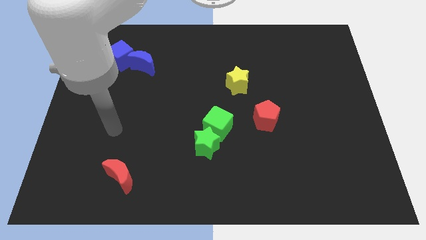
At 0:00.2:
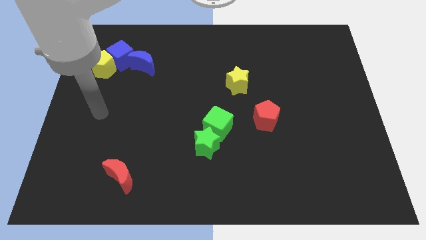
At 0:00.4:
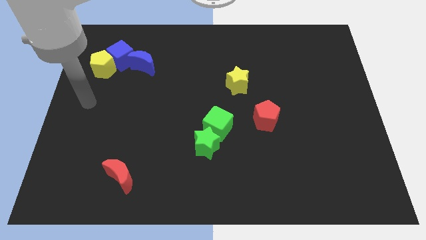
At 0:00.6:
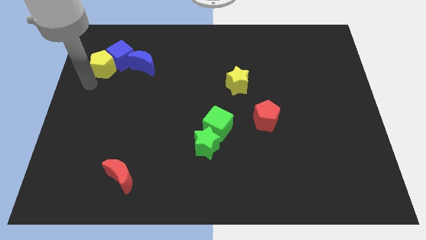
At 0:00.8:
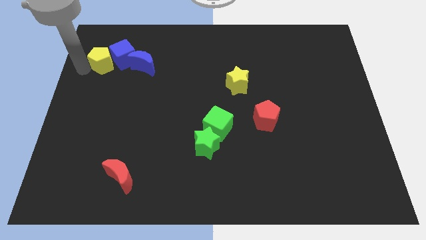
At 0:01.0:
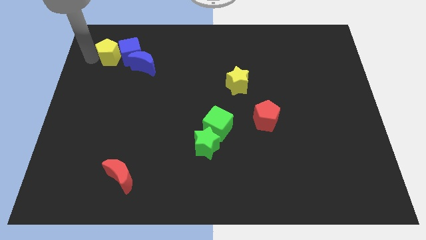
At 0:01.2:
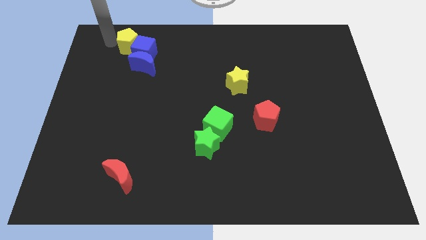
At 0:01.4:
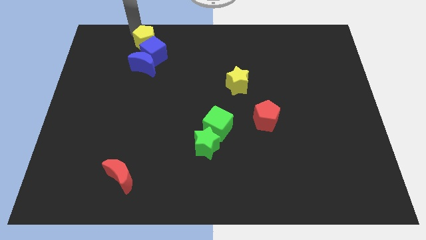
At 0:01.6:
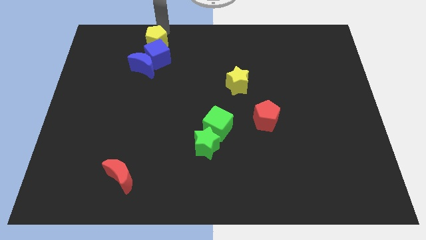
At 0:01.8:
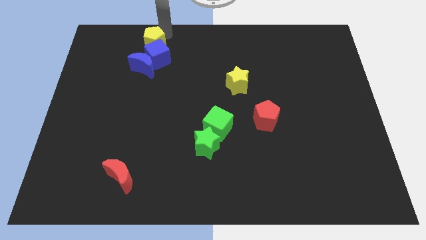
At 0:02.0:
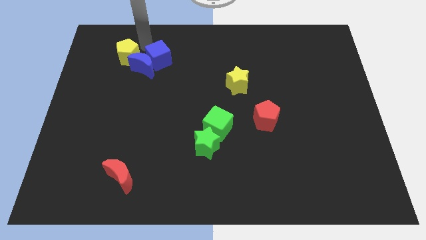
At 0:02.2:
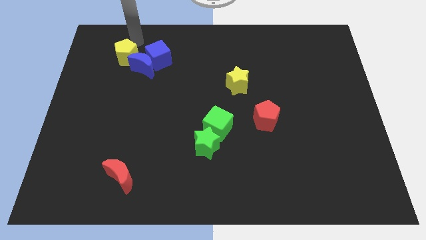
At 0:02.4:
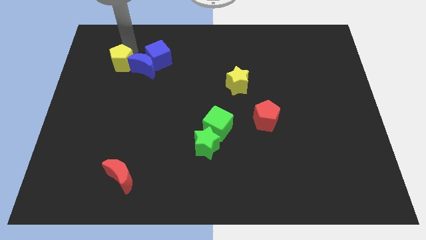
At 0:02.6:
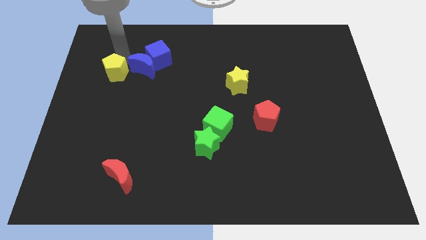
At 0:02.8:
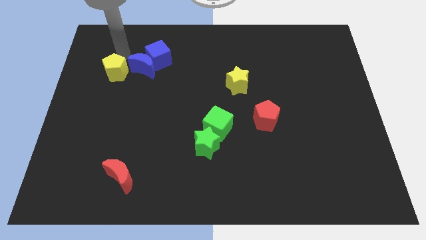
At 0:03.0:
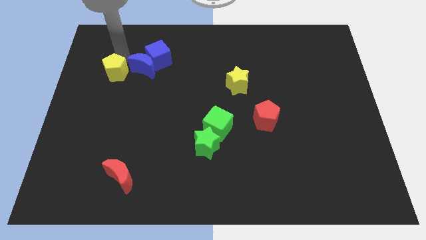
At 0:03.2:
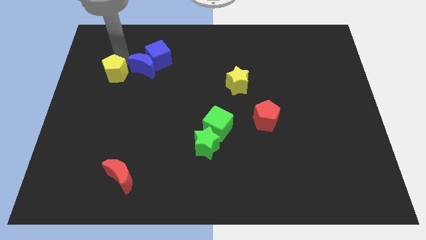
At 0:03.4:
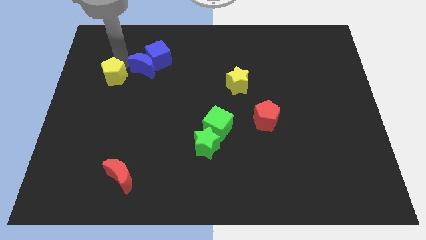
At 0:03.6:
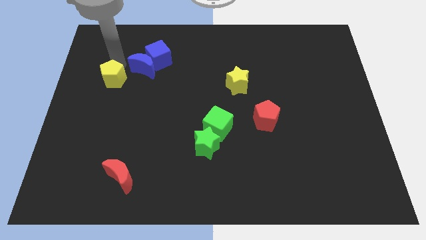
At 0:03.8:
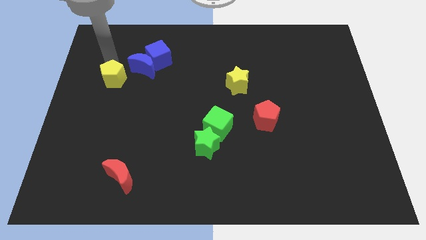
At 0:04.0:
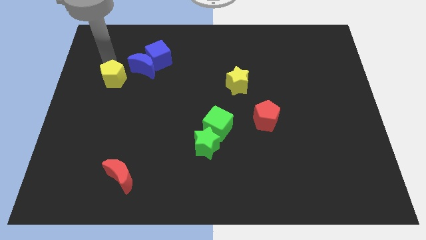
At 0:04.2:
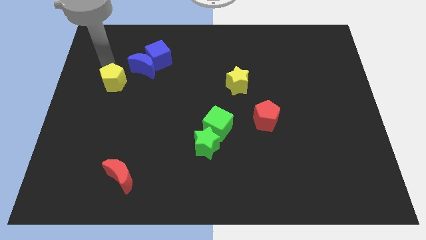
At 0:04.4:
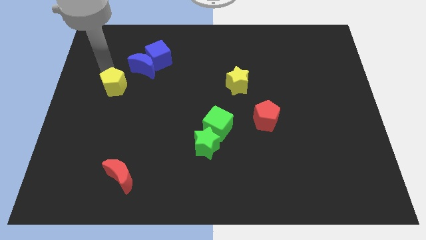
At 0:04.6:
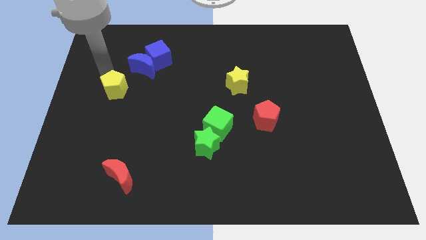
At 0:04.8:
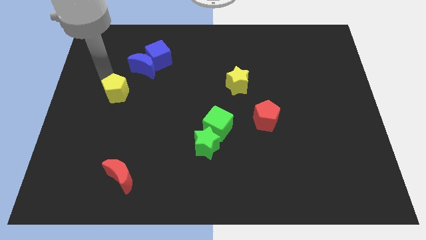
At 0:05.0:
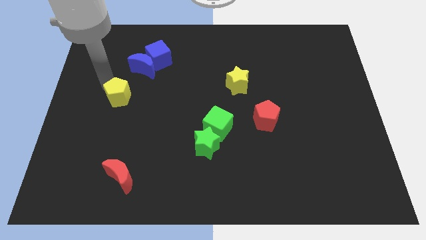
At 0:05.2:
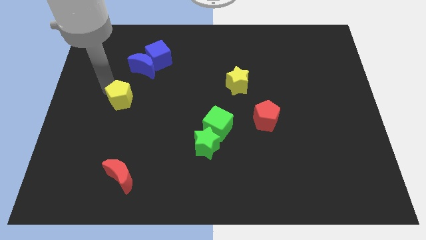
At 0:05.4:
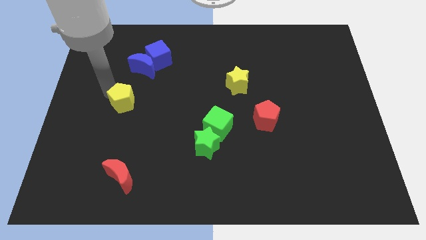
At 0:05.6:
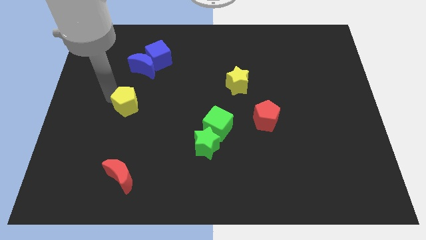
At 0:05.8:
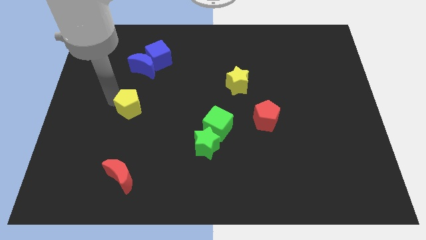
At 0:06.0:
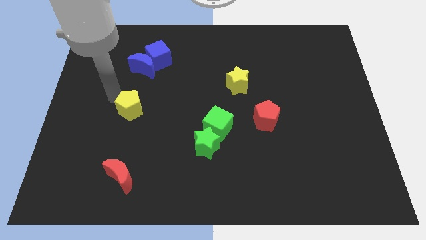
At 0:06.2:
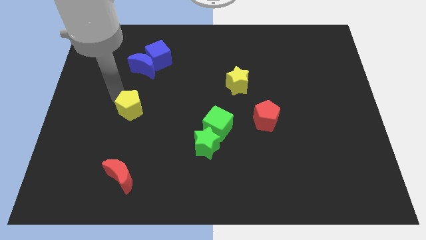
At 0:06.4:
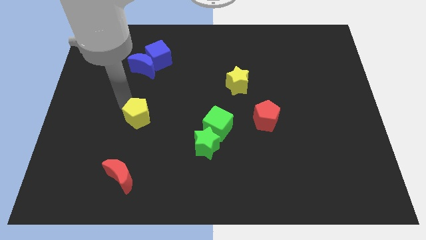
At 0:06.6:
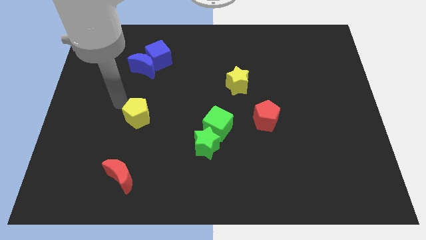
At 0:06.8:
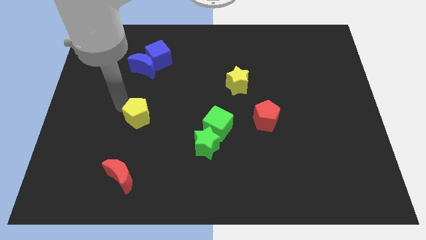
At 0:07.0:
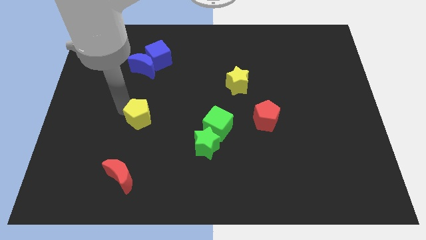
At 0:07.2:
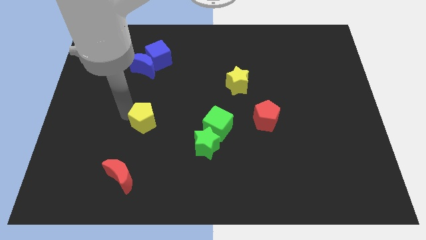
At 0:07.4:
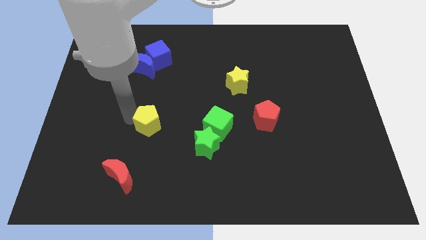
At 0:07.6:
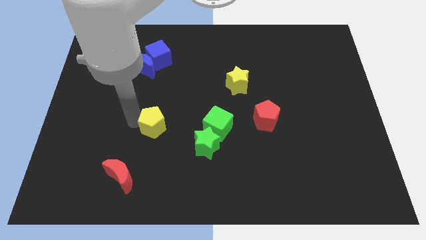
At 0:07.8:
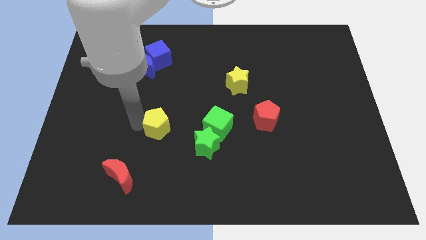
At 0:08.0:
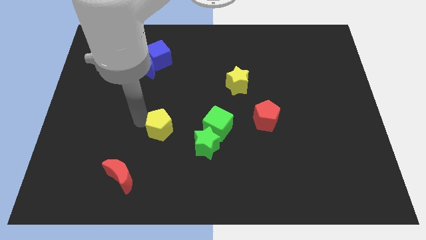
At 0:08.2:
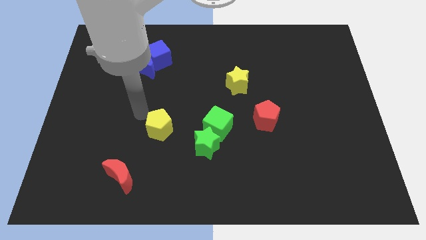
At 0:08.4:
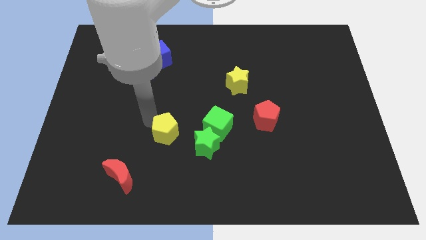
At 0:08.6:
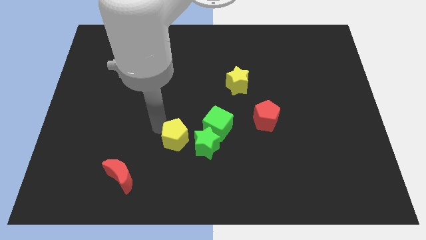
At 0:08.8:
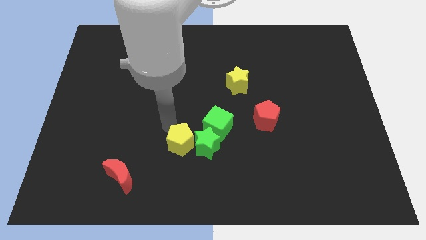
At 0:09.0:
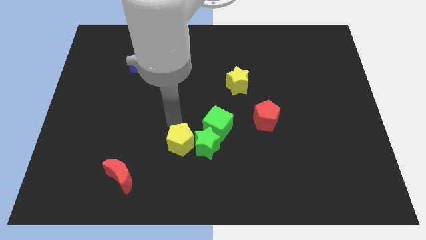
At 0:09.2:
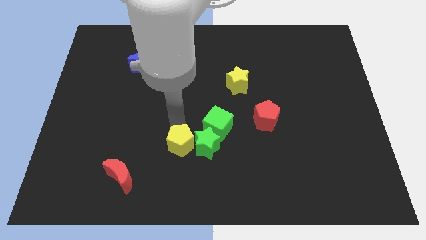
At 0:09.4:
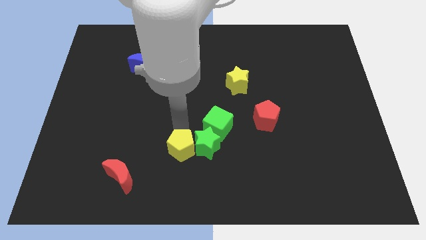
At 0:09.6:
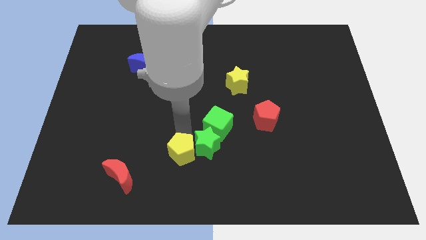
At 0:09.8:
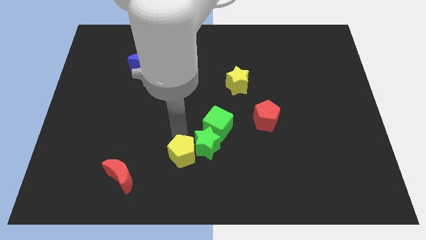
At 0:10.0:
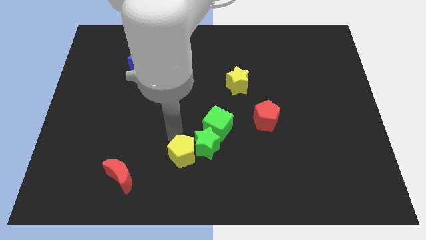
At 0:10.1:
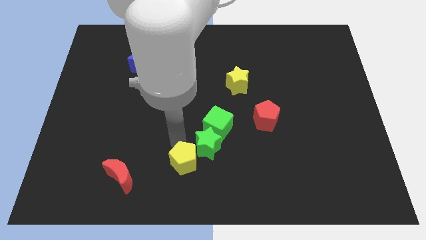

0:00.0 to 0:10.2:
slide the yellow pentagon to the bottom side

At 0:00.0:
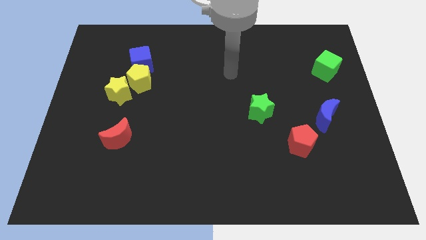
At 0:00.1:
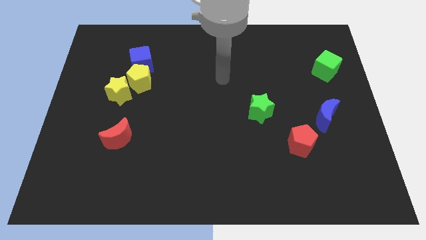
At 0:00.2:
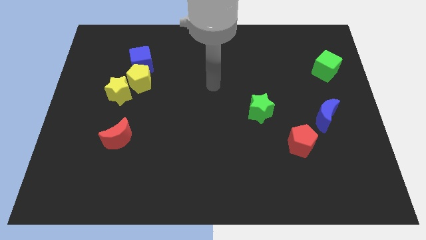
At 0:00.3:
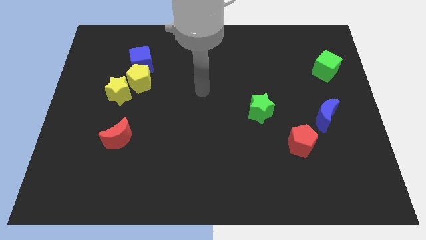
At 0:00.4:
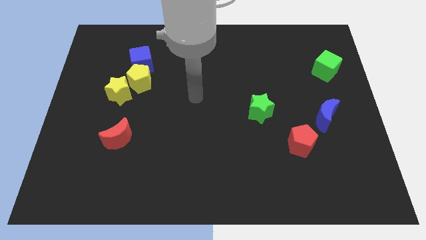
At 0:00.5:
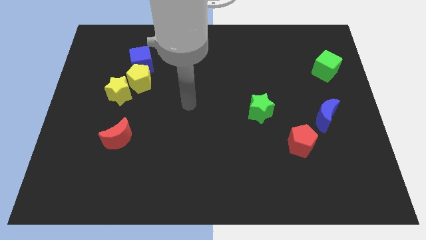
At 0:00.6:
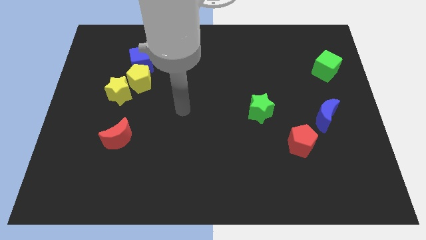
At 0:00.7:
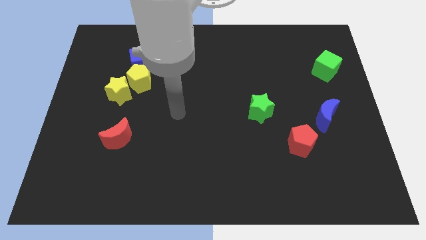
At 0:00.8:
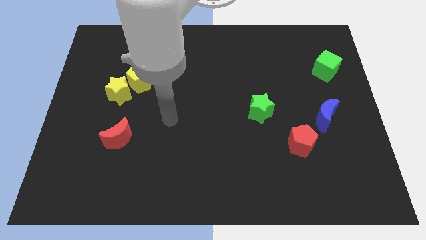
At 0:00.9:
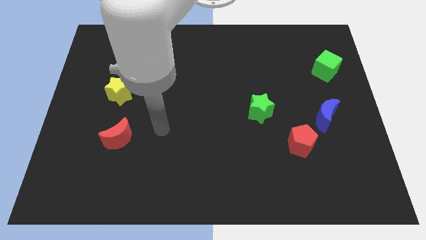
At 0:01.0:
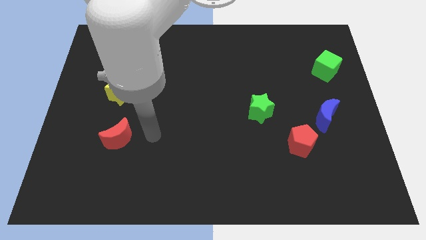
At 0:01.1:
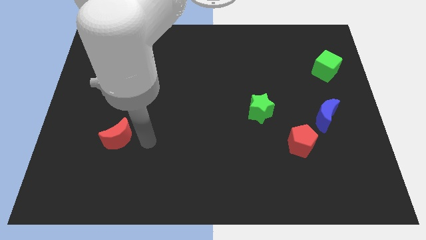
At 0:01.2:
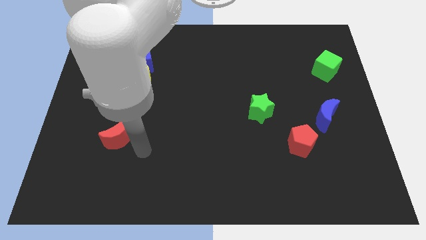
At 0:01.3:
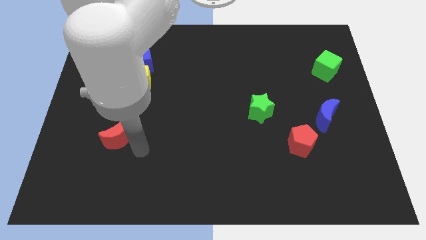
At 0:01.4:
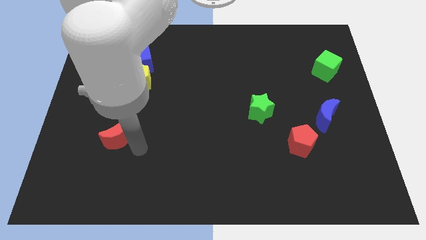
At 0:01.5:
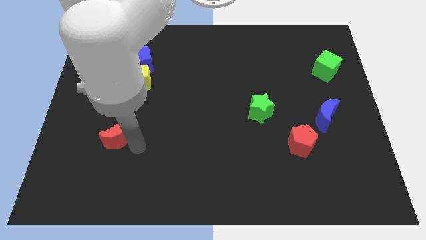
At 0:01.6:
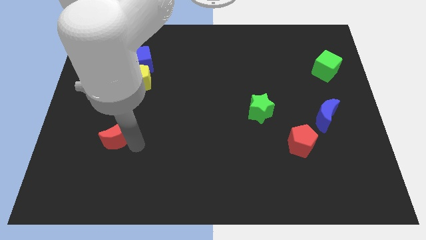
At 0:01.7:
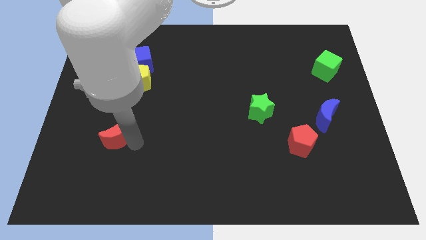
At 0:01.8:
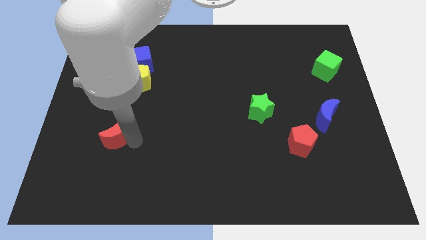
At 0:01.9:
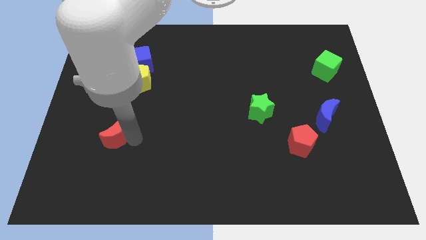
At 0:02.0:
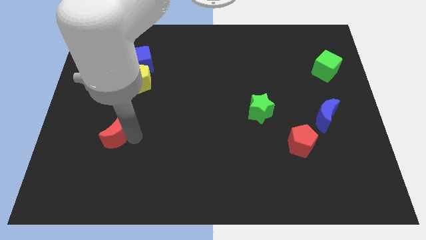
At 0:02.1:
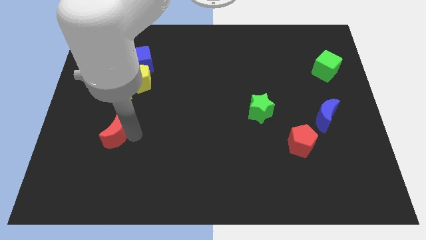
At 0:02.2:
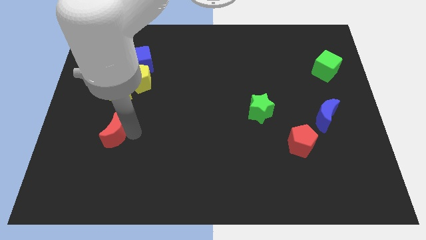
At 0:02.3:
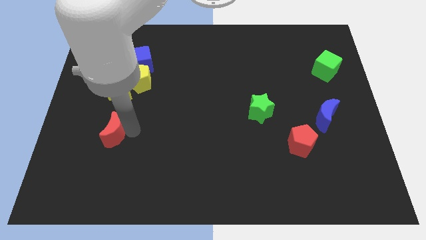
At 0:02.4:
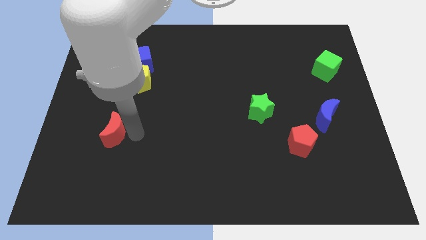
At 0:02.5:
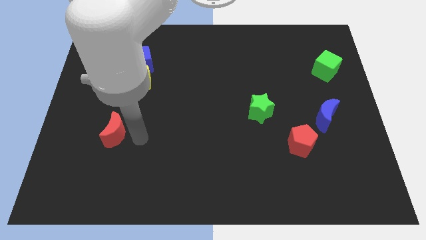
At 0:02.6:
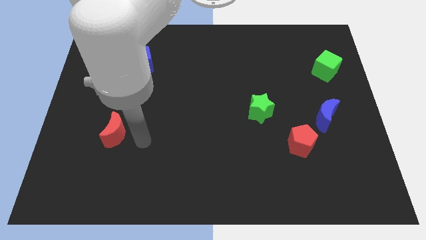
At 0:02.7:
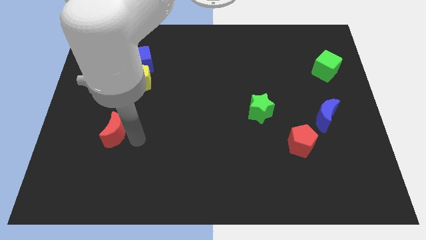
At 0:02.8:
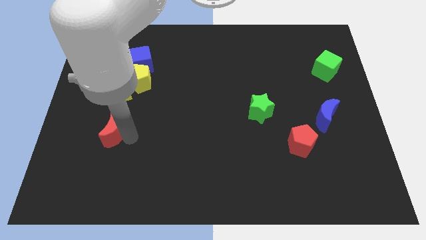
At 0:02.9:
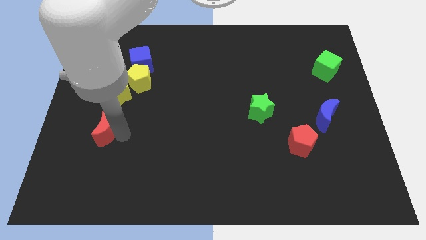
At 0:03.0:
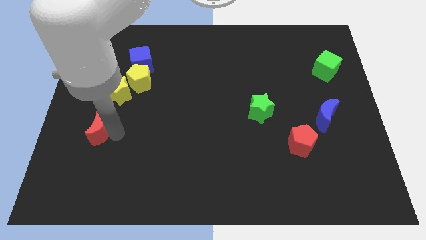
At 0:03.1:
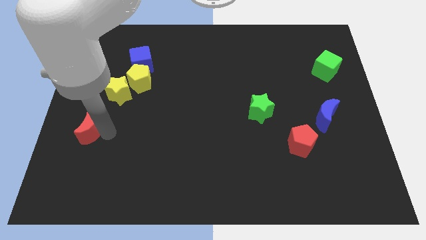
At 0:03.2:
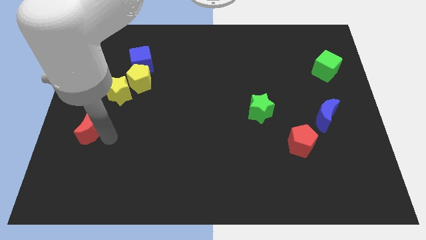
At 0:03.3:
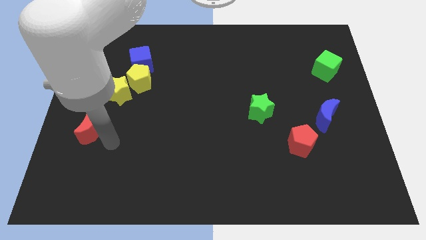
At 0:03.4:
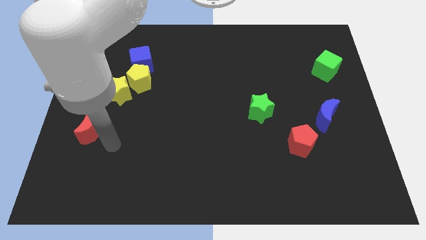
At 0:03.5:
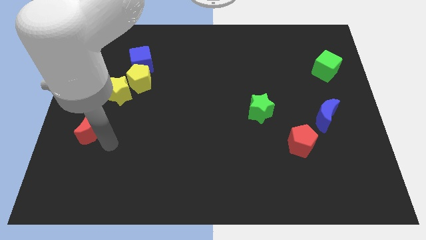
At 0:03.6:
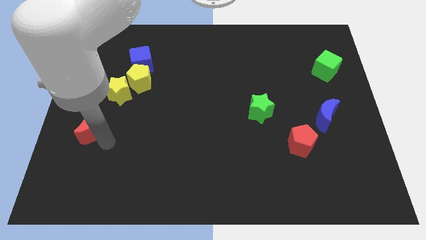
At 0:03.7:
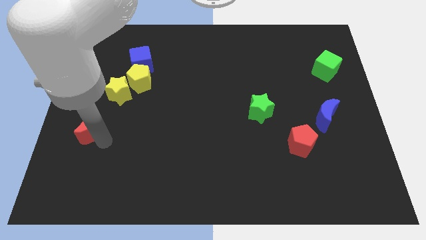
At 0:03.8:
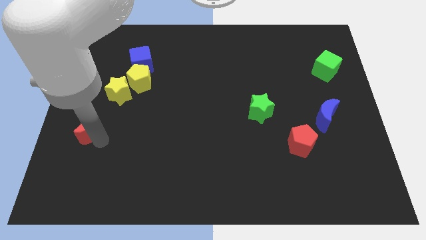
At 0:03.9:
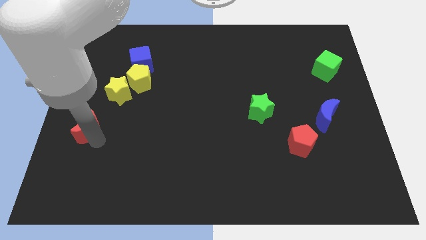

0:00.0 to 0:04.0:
move the red moon to the left side of the board
